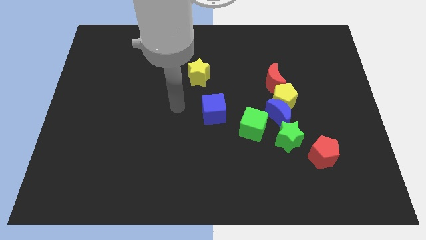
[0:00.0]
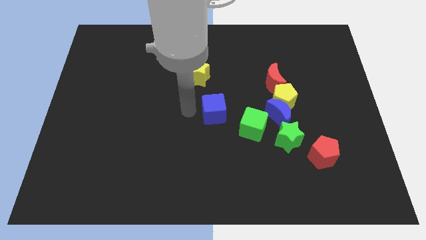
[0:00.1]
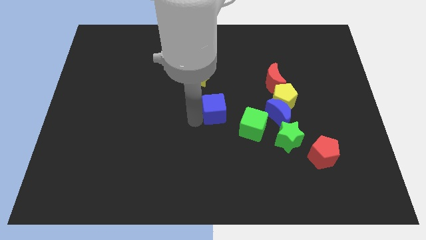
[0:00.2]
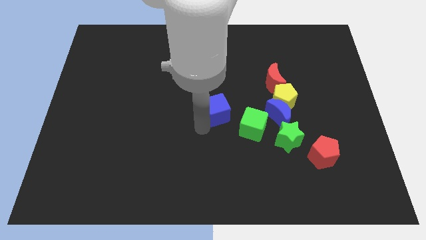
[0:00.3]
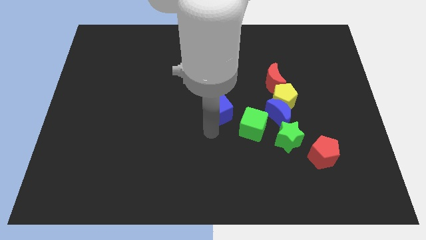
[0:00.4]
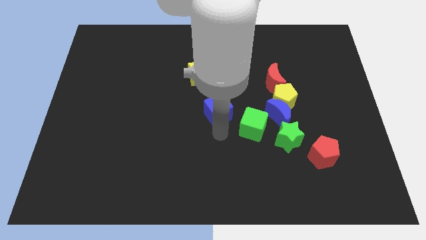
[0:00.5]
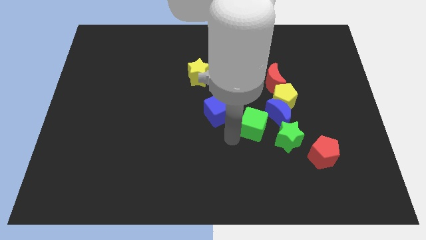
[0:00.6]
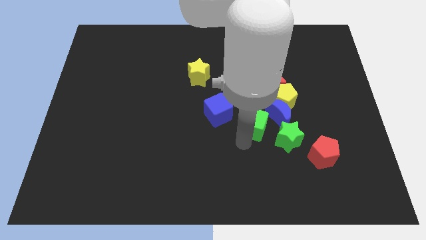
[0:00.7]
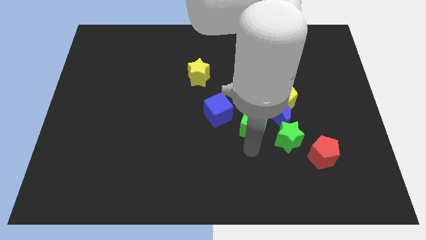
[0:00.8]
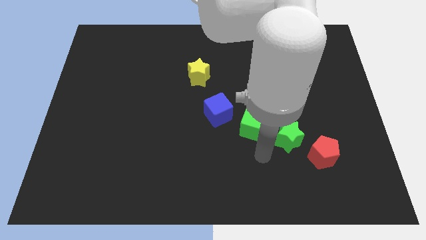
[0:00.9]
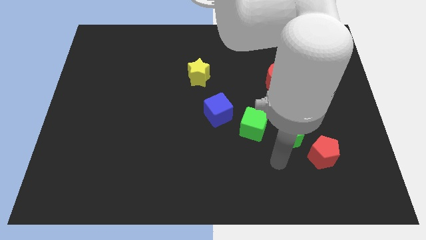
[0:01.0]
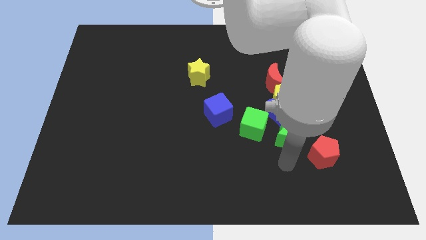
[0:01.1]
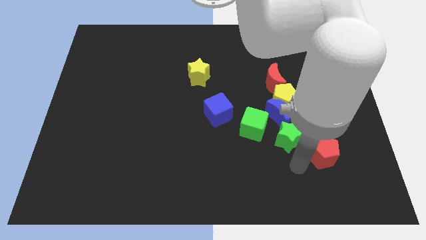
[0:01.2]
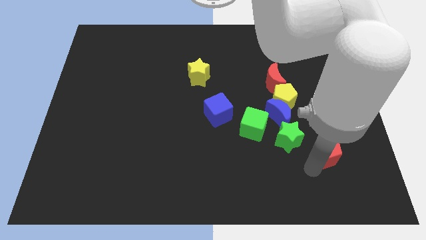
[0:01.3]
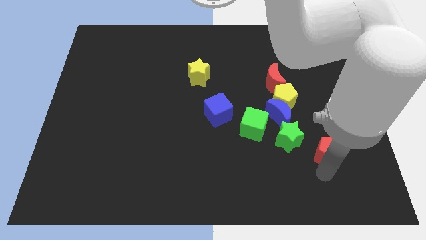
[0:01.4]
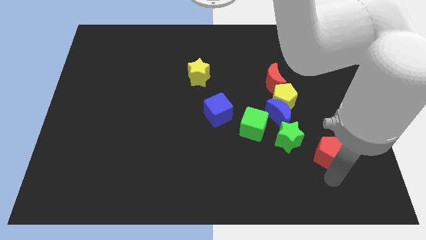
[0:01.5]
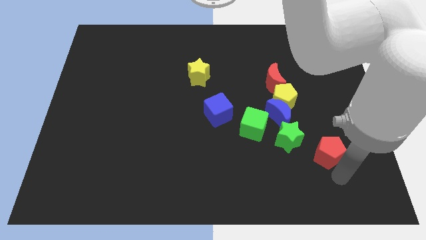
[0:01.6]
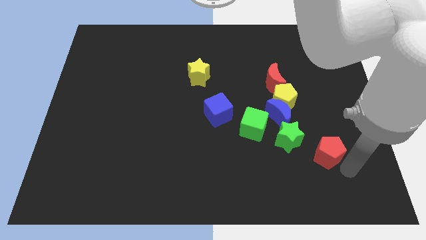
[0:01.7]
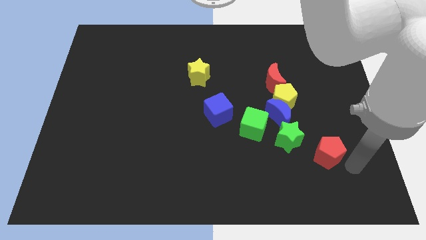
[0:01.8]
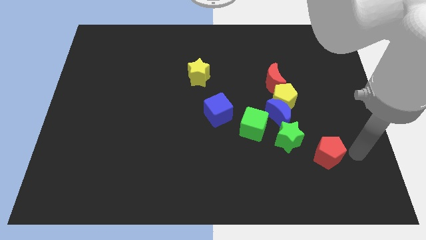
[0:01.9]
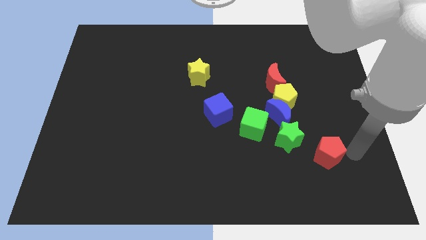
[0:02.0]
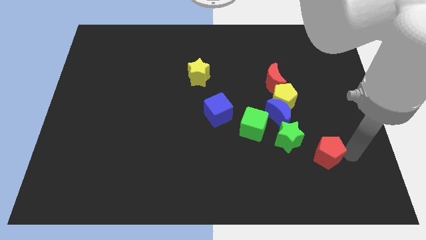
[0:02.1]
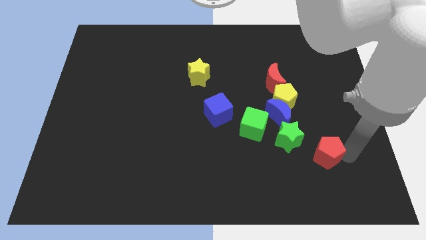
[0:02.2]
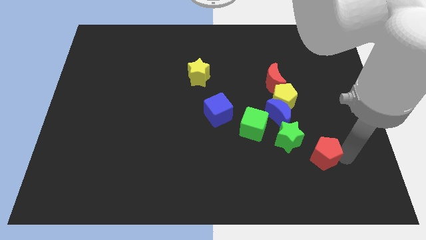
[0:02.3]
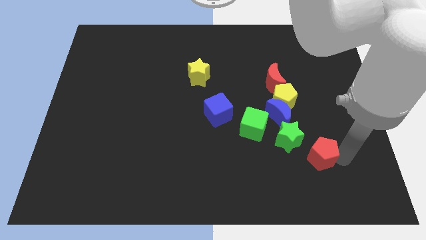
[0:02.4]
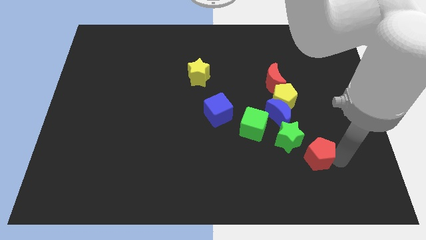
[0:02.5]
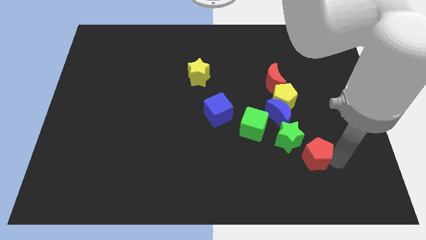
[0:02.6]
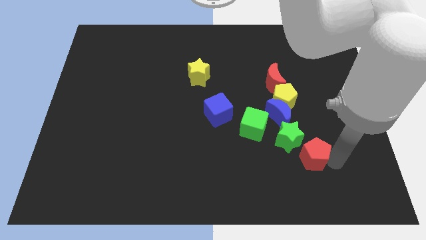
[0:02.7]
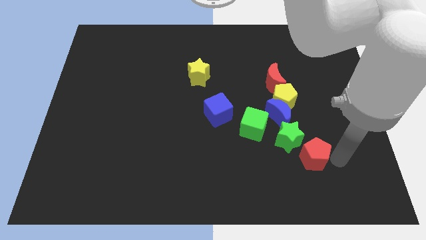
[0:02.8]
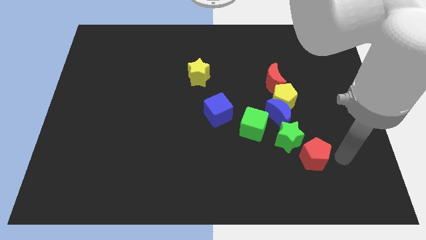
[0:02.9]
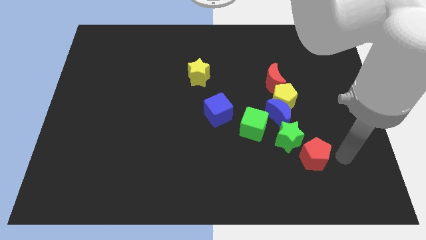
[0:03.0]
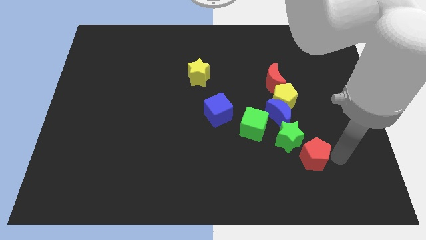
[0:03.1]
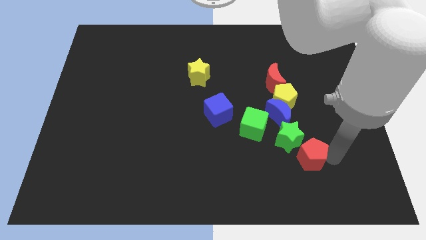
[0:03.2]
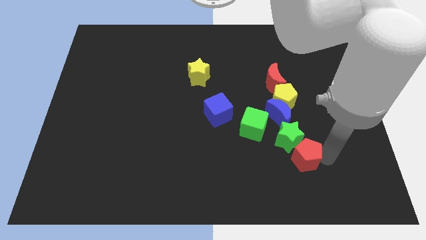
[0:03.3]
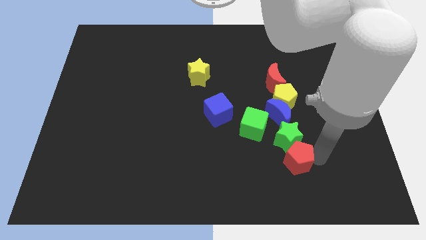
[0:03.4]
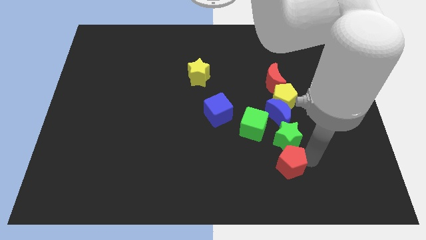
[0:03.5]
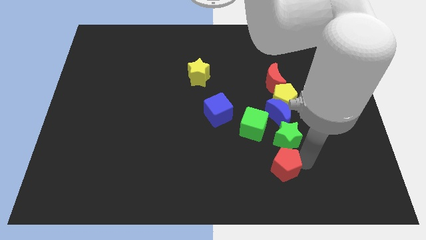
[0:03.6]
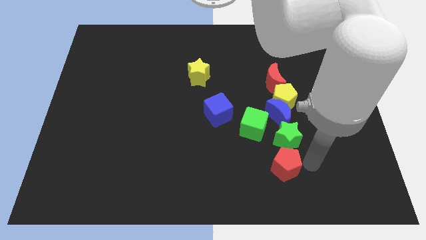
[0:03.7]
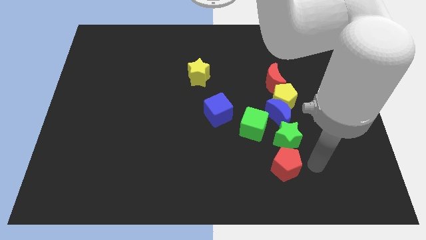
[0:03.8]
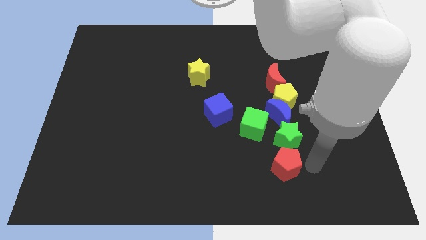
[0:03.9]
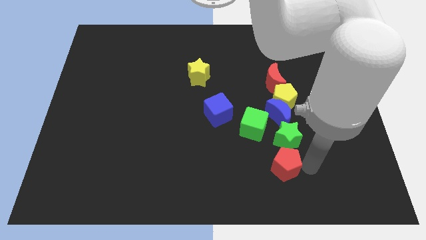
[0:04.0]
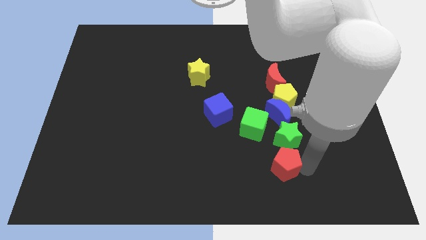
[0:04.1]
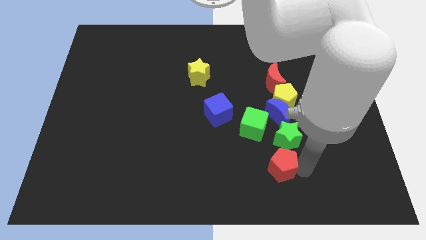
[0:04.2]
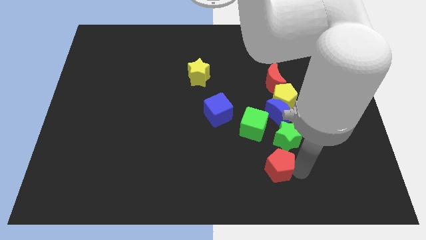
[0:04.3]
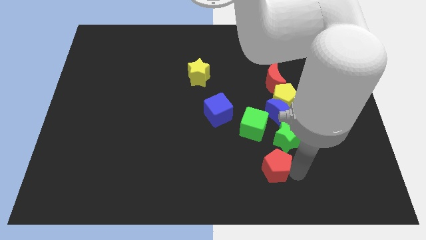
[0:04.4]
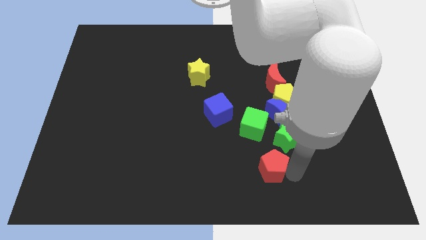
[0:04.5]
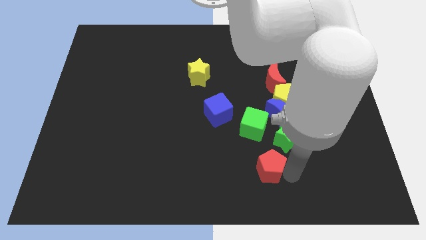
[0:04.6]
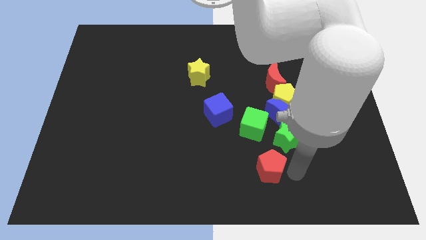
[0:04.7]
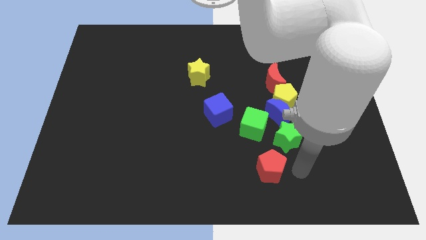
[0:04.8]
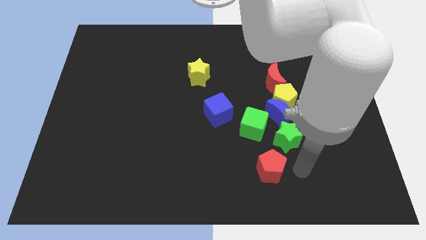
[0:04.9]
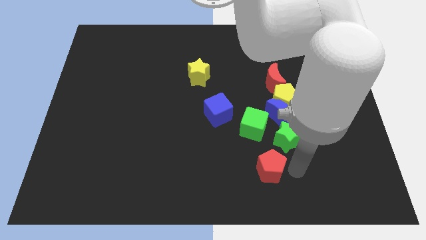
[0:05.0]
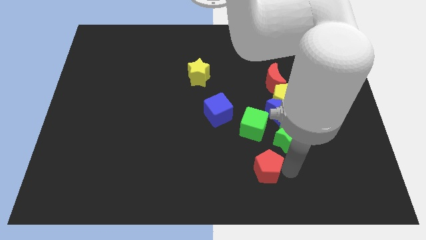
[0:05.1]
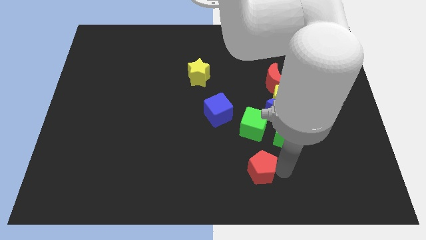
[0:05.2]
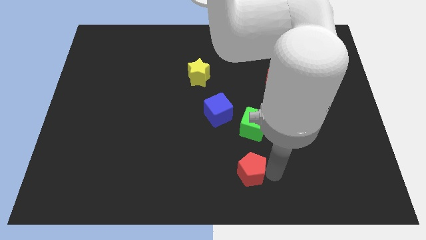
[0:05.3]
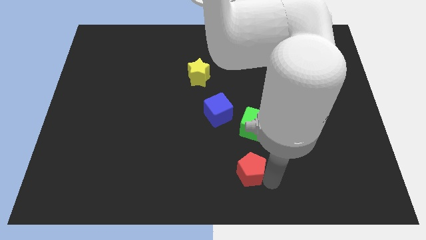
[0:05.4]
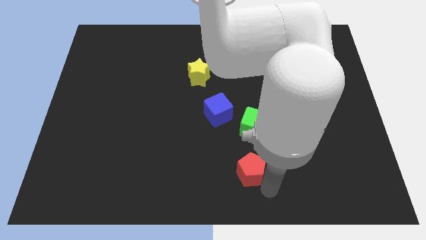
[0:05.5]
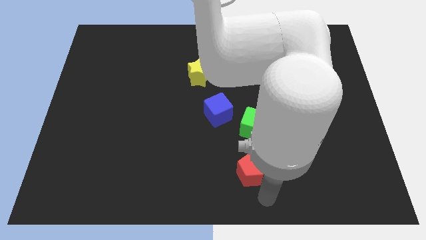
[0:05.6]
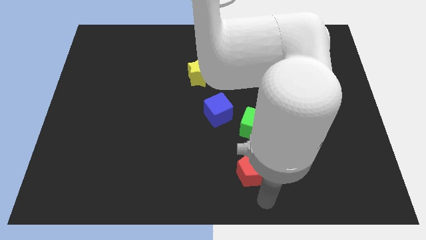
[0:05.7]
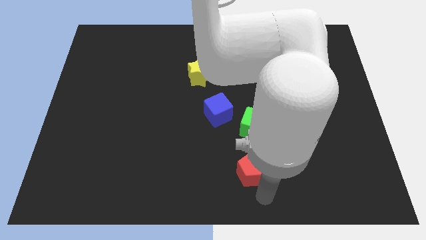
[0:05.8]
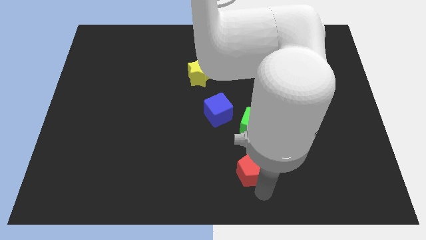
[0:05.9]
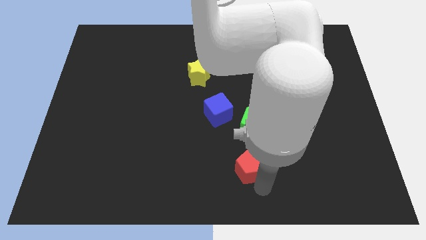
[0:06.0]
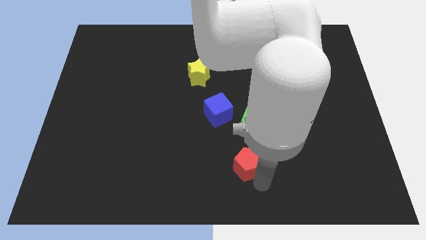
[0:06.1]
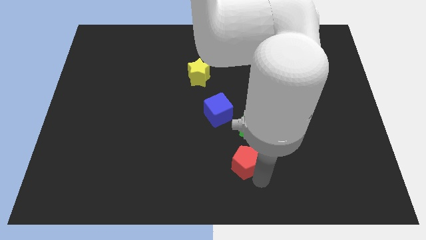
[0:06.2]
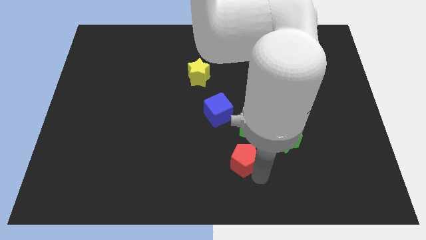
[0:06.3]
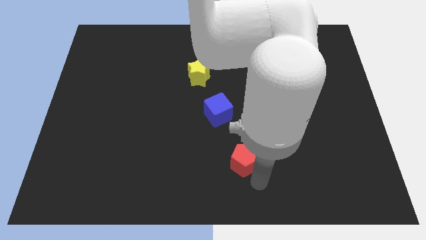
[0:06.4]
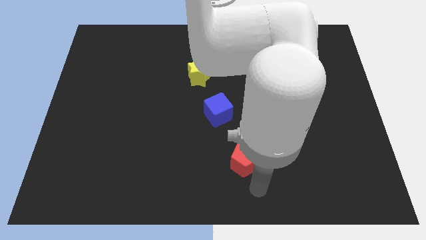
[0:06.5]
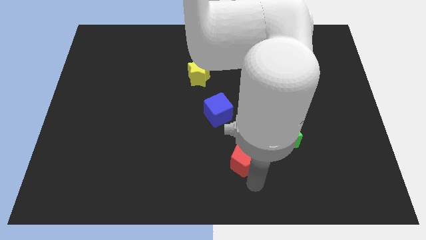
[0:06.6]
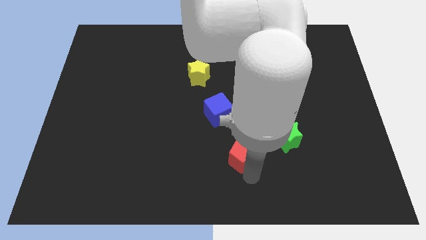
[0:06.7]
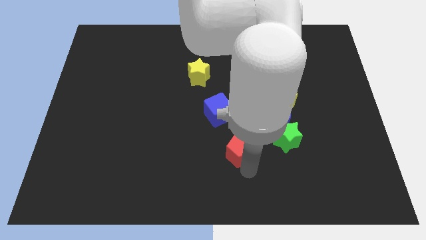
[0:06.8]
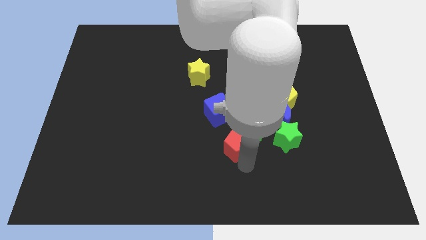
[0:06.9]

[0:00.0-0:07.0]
move the red pentagon upwards and then to the left somewhat

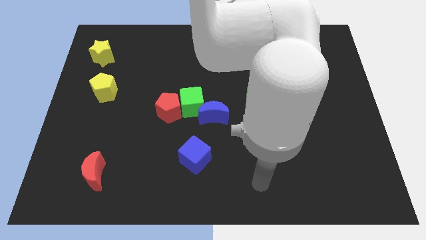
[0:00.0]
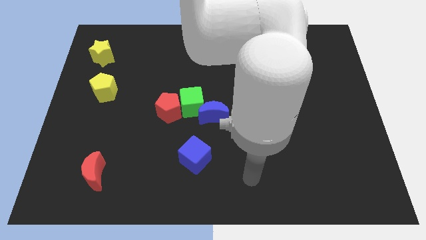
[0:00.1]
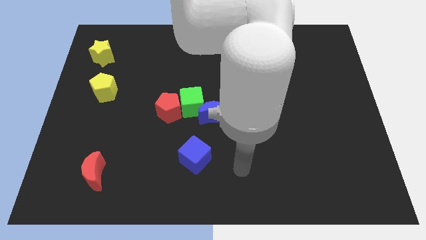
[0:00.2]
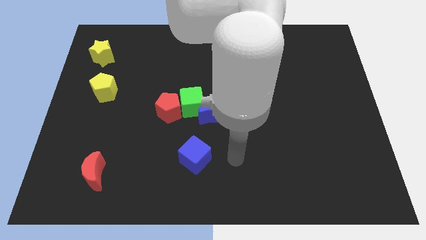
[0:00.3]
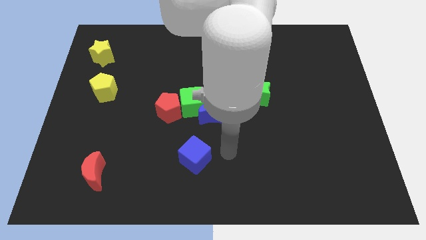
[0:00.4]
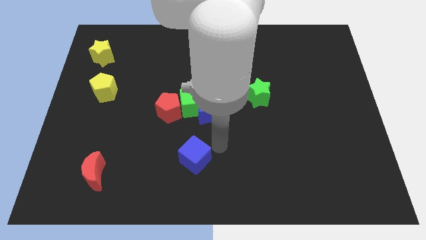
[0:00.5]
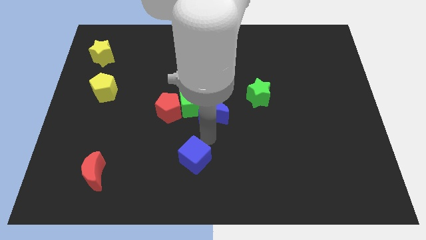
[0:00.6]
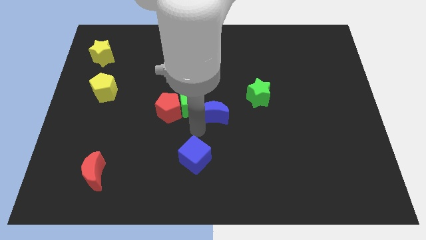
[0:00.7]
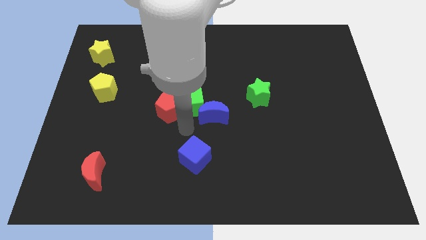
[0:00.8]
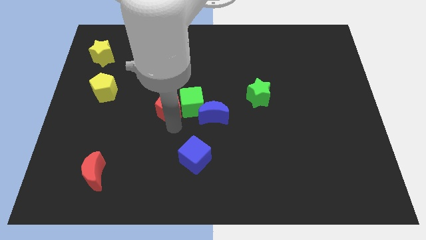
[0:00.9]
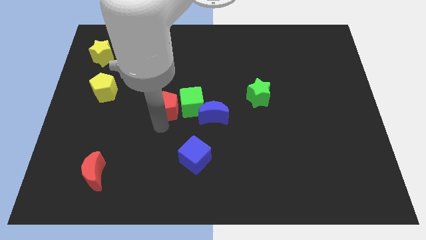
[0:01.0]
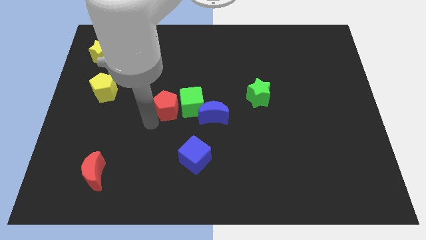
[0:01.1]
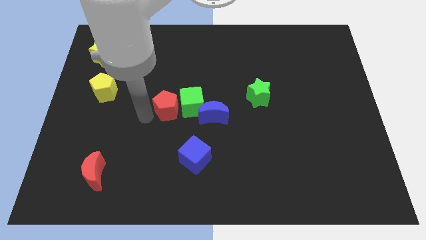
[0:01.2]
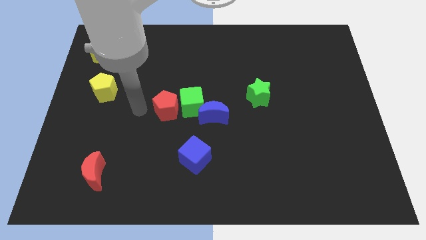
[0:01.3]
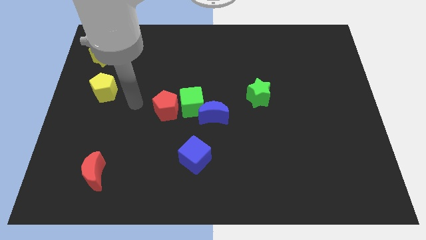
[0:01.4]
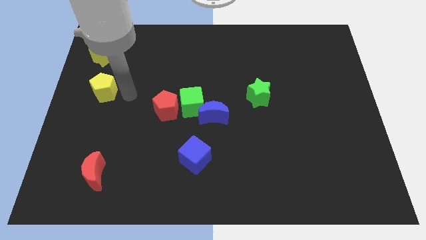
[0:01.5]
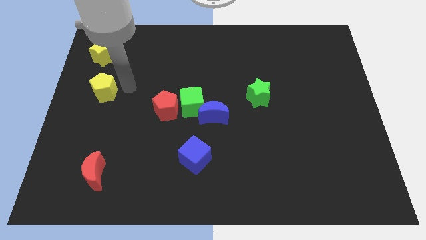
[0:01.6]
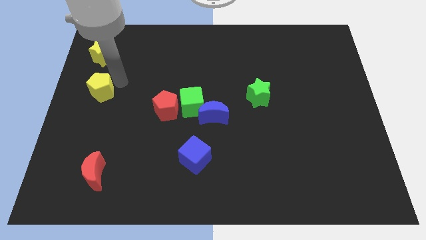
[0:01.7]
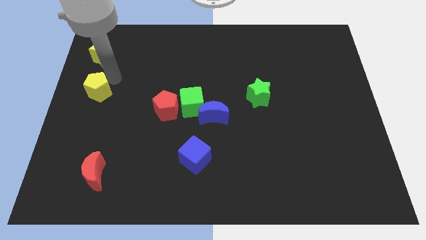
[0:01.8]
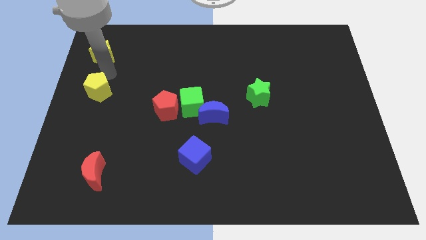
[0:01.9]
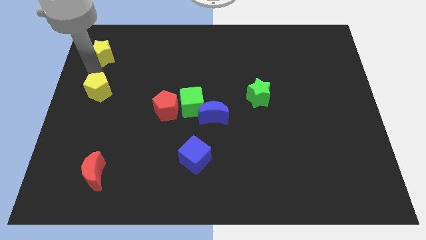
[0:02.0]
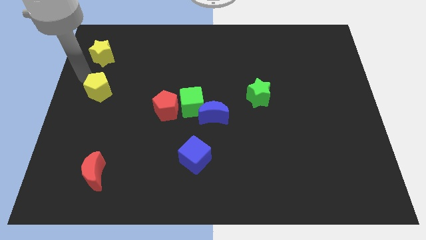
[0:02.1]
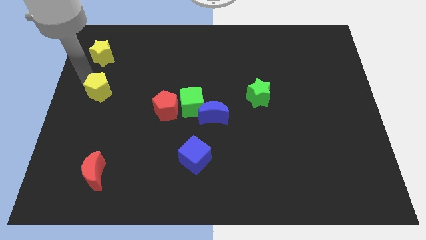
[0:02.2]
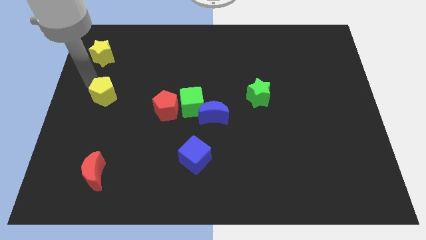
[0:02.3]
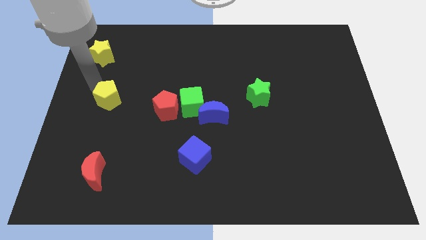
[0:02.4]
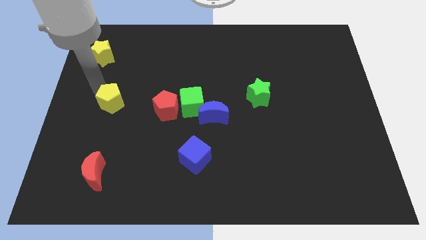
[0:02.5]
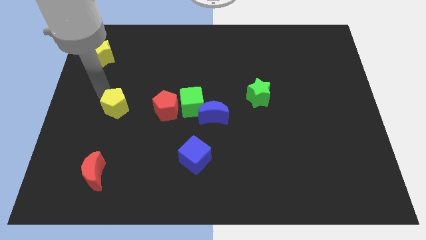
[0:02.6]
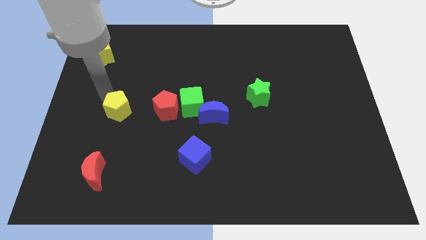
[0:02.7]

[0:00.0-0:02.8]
move the yellow pentagon slightly downwards and right diagonally
